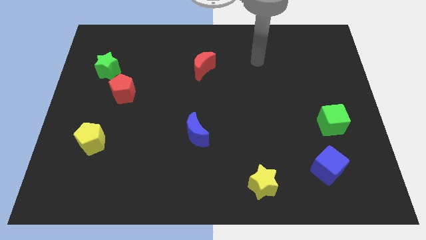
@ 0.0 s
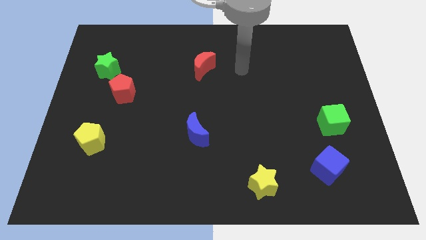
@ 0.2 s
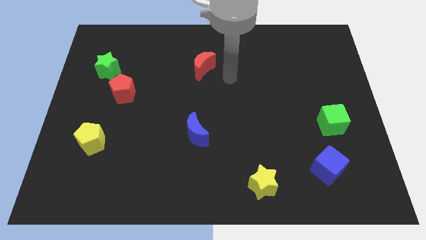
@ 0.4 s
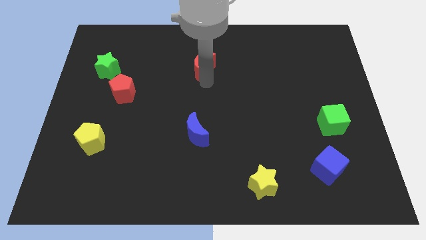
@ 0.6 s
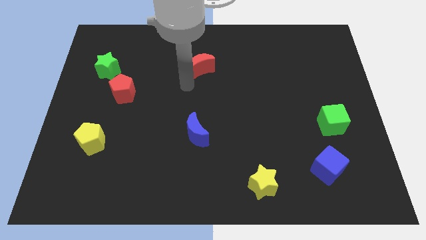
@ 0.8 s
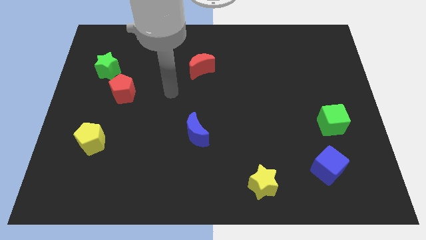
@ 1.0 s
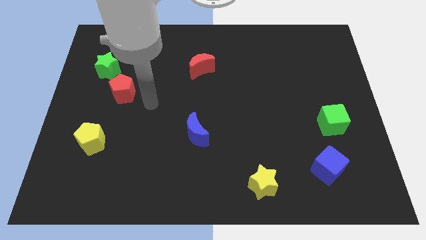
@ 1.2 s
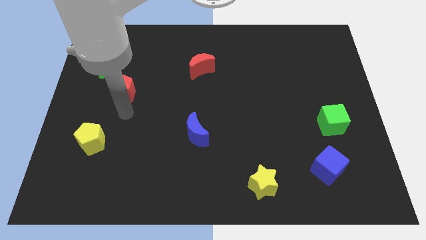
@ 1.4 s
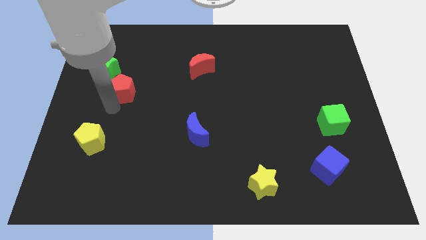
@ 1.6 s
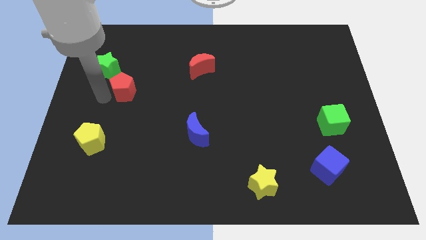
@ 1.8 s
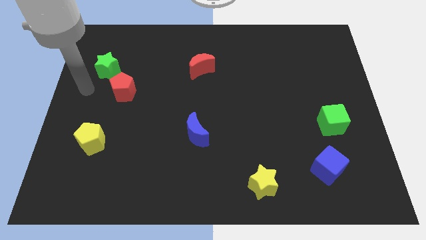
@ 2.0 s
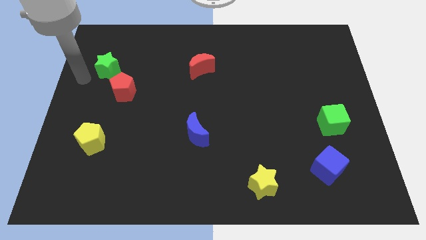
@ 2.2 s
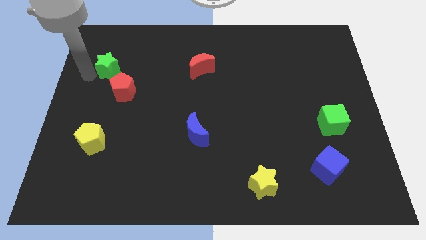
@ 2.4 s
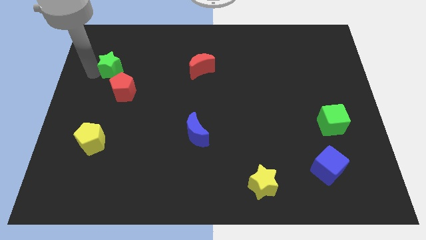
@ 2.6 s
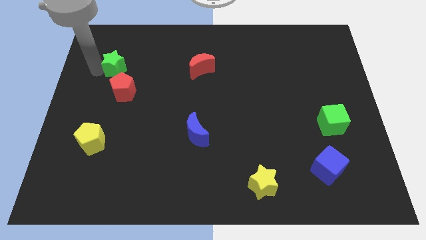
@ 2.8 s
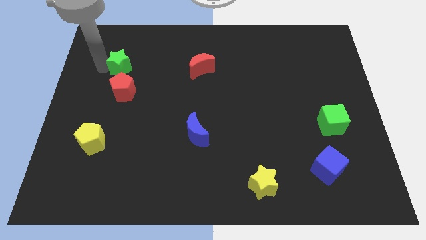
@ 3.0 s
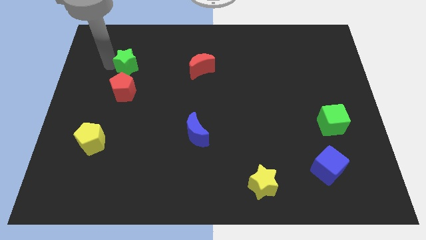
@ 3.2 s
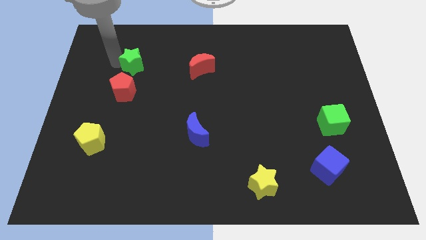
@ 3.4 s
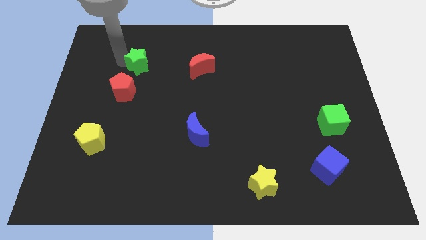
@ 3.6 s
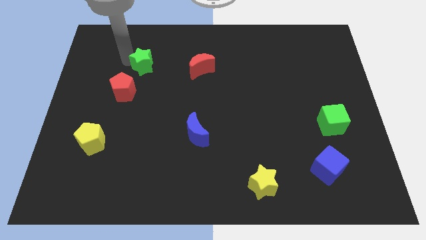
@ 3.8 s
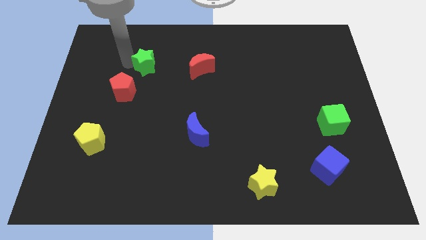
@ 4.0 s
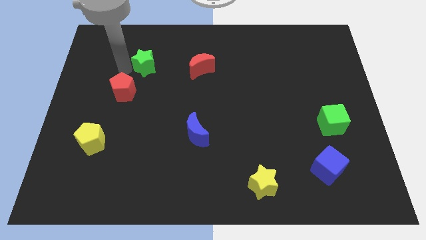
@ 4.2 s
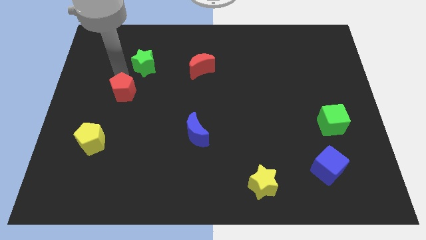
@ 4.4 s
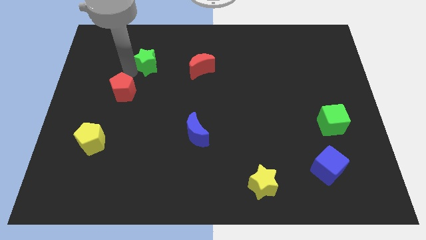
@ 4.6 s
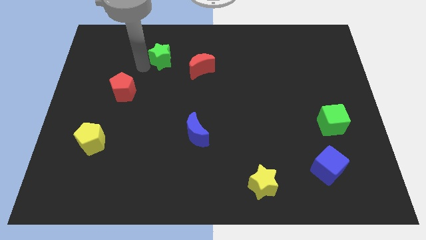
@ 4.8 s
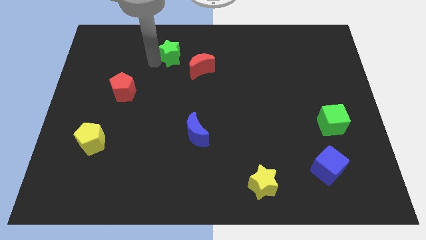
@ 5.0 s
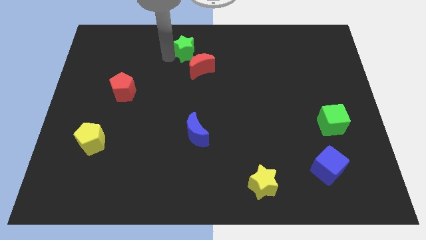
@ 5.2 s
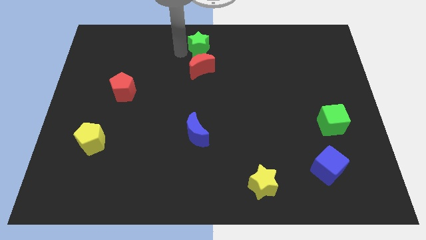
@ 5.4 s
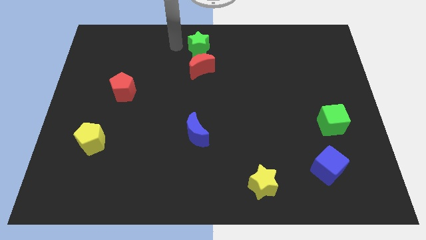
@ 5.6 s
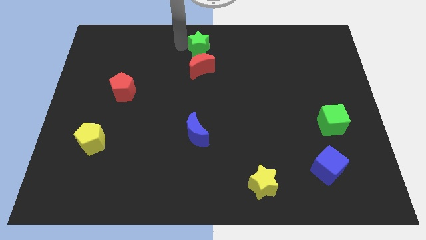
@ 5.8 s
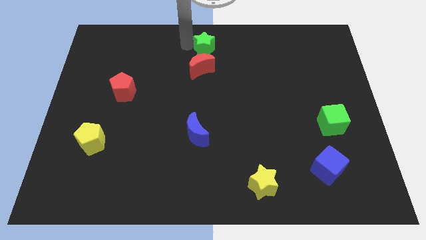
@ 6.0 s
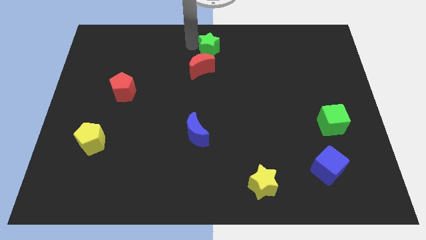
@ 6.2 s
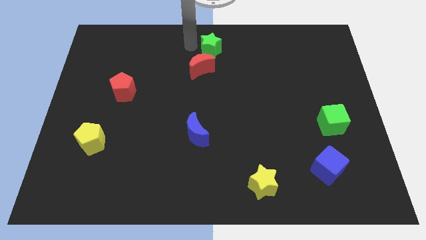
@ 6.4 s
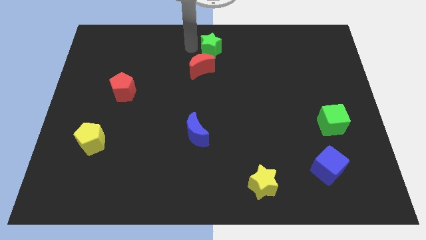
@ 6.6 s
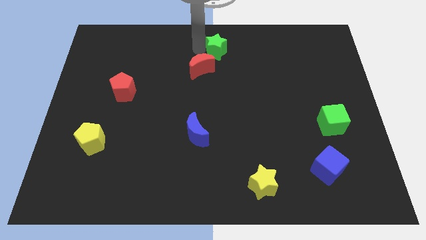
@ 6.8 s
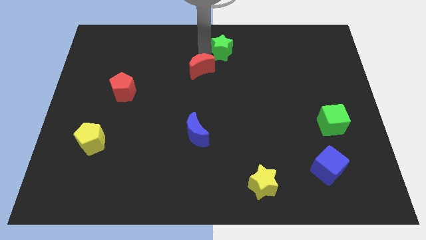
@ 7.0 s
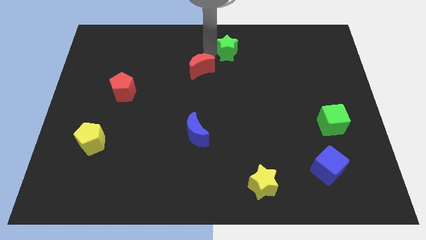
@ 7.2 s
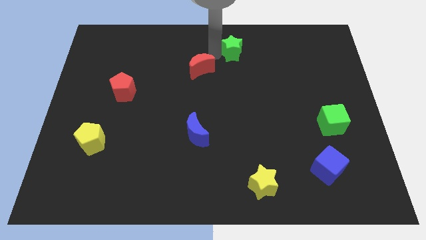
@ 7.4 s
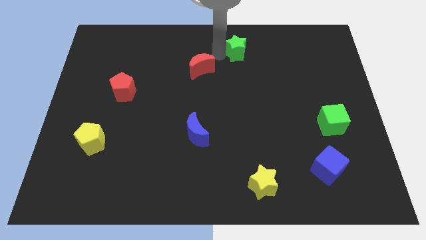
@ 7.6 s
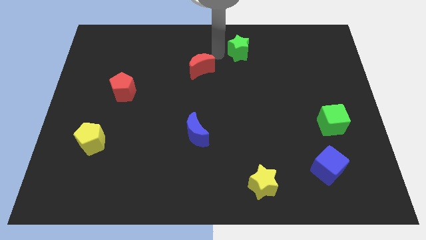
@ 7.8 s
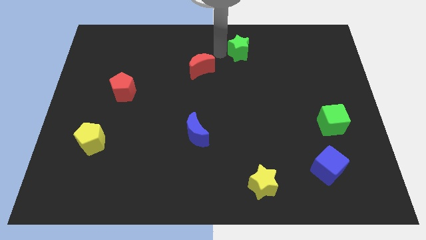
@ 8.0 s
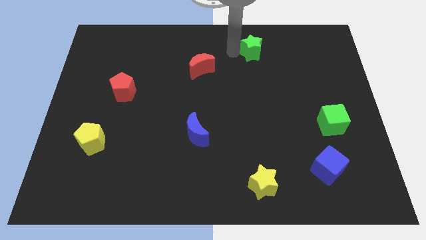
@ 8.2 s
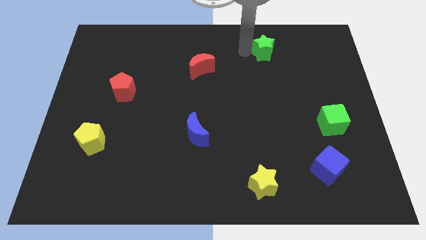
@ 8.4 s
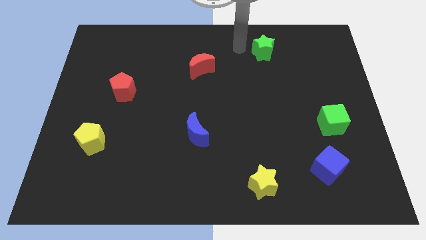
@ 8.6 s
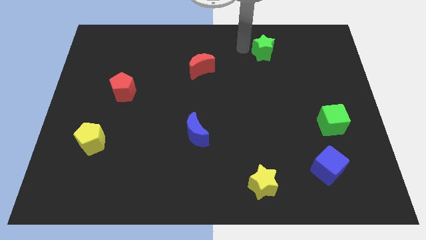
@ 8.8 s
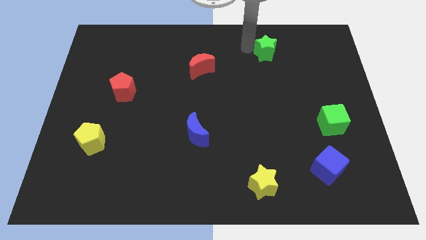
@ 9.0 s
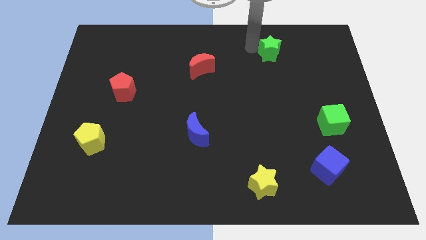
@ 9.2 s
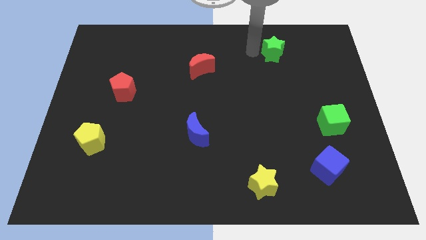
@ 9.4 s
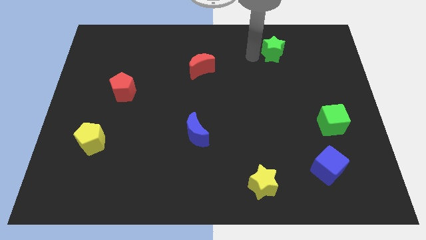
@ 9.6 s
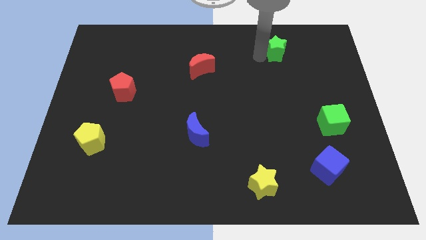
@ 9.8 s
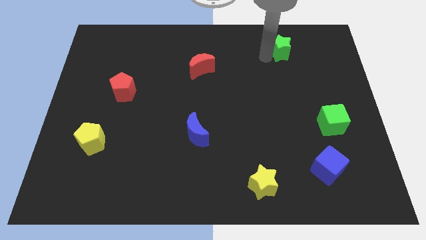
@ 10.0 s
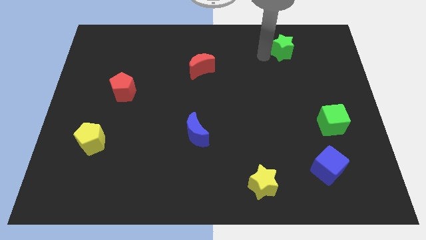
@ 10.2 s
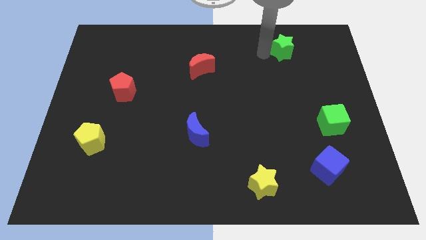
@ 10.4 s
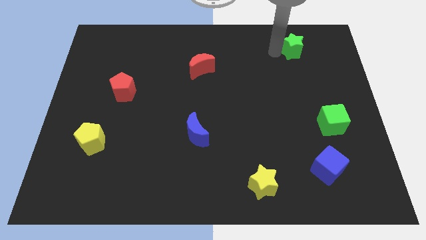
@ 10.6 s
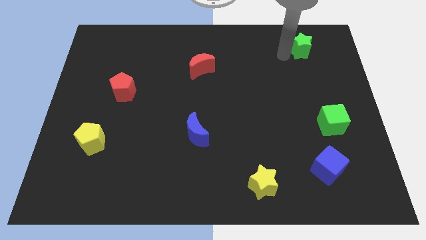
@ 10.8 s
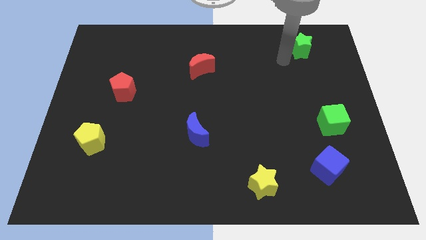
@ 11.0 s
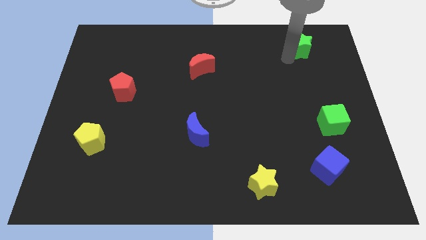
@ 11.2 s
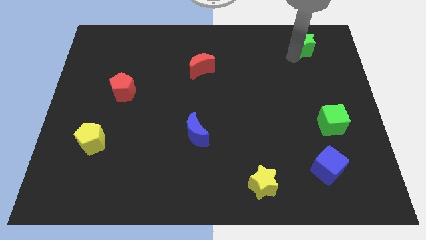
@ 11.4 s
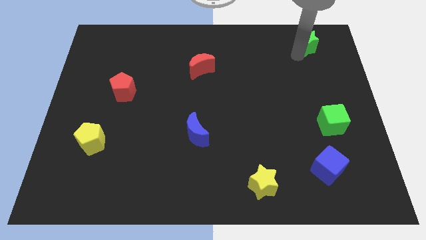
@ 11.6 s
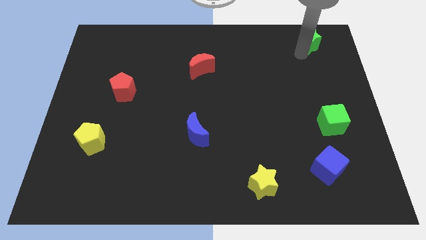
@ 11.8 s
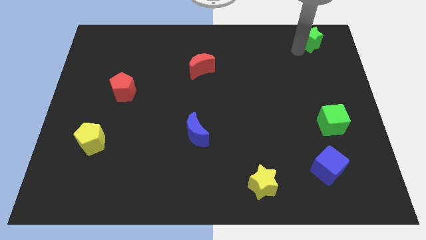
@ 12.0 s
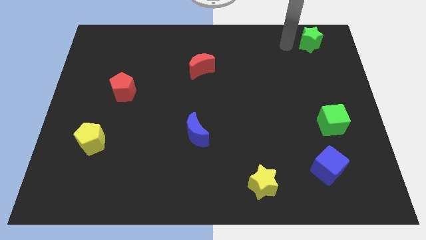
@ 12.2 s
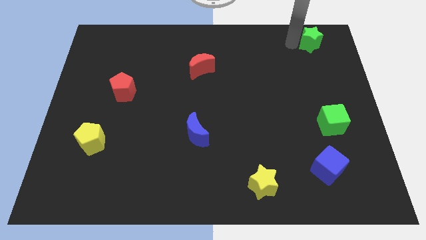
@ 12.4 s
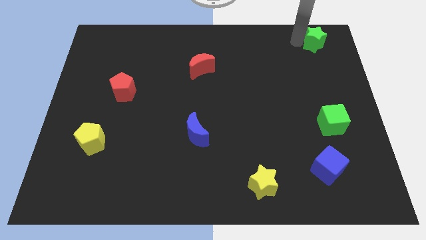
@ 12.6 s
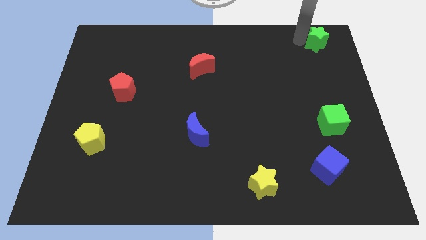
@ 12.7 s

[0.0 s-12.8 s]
slide the green star to the top right of the board
